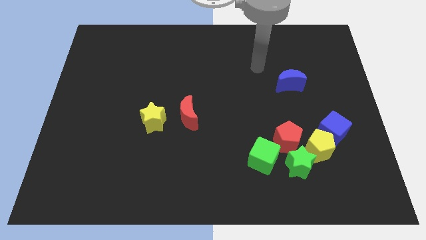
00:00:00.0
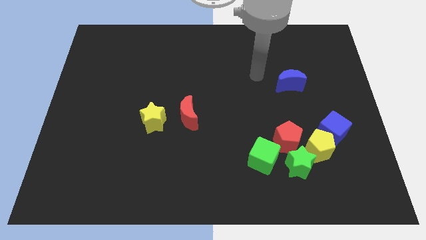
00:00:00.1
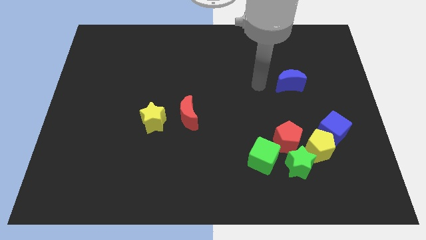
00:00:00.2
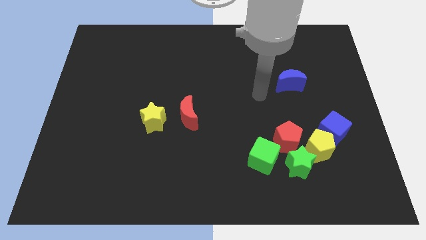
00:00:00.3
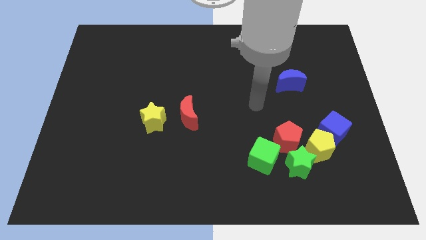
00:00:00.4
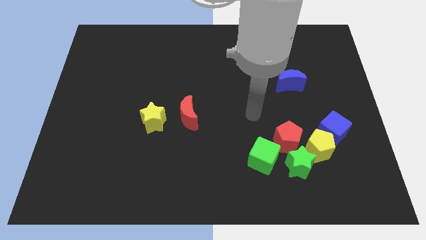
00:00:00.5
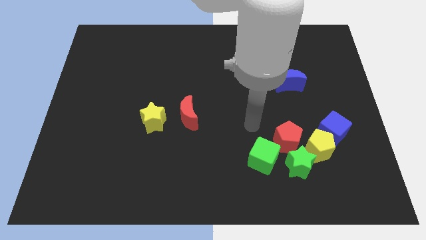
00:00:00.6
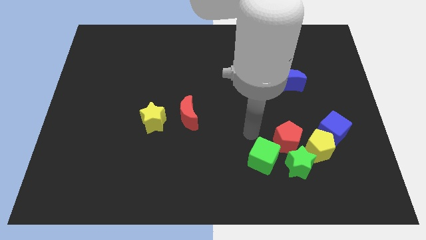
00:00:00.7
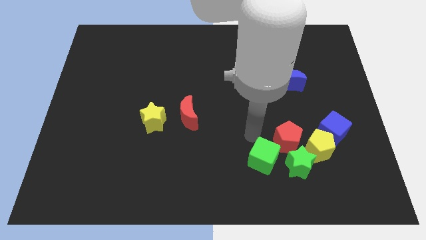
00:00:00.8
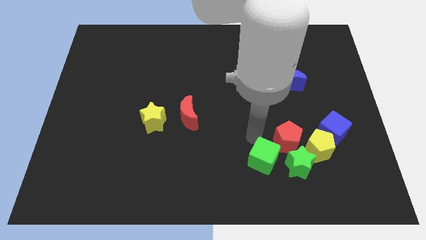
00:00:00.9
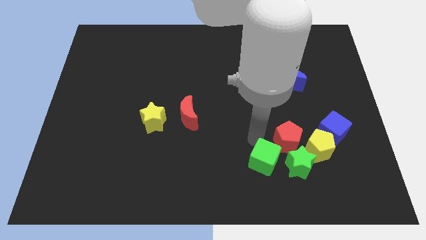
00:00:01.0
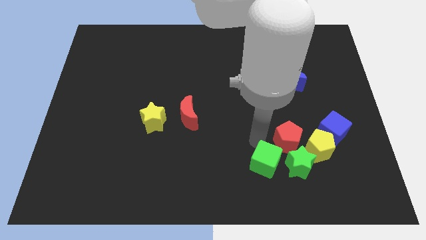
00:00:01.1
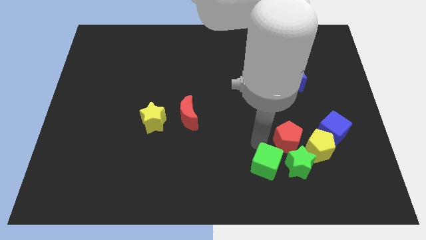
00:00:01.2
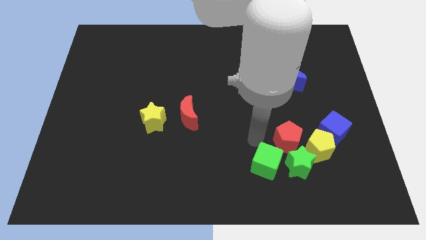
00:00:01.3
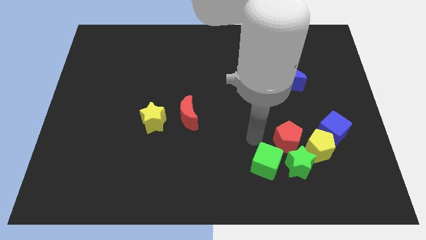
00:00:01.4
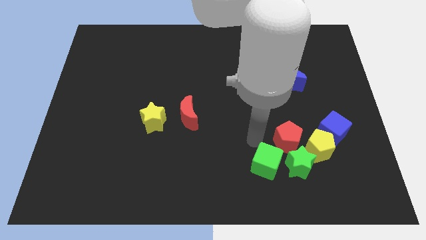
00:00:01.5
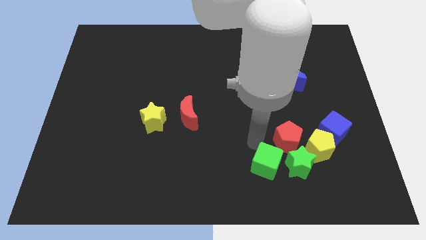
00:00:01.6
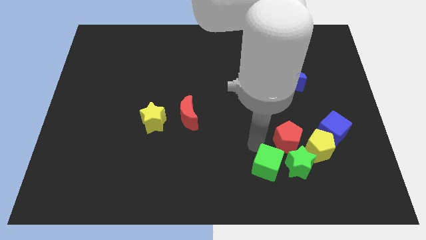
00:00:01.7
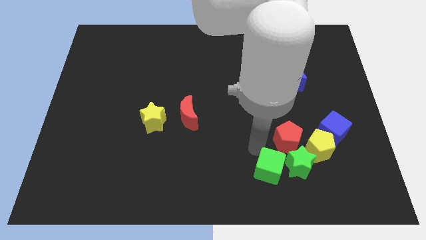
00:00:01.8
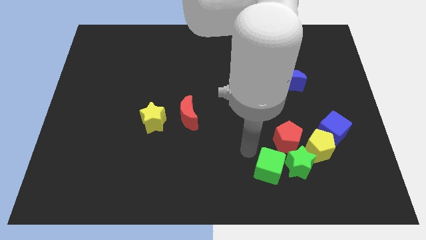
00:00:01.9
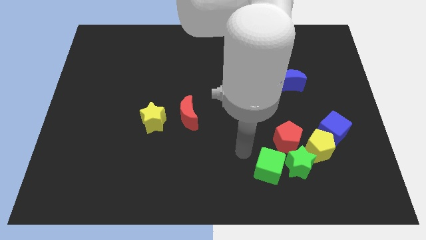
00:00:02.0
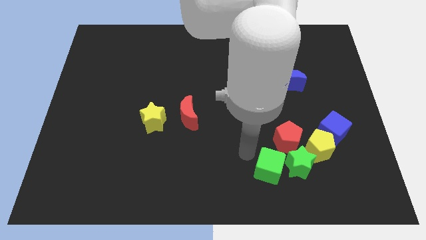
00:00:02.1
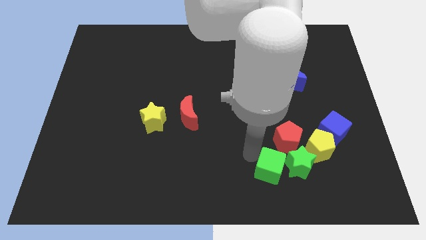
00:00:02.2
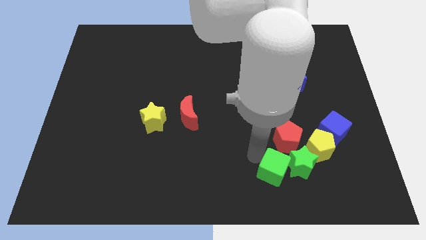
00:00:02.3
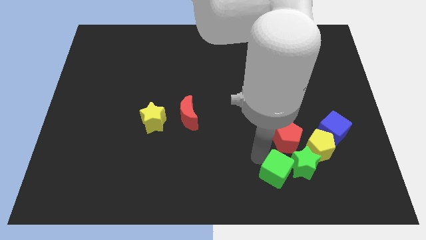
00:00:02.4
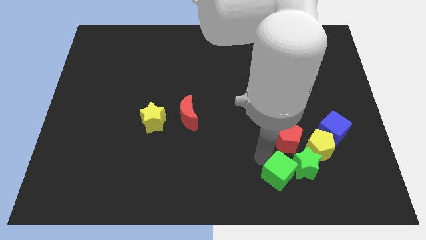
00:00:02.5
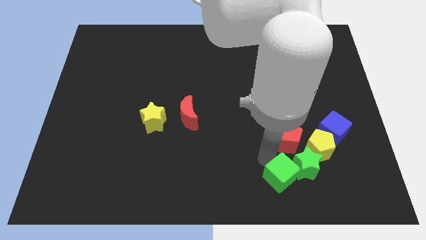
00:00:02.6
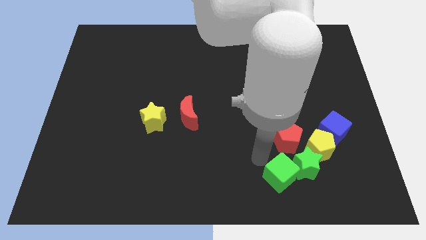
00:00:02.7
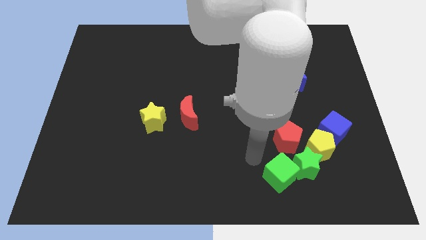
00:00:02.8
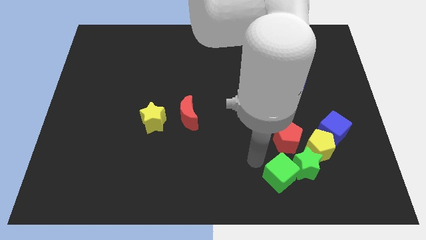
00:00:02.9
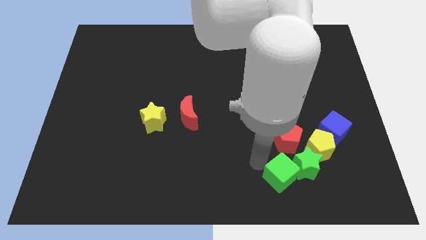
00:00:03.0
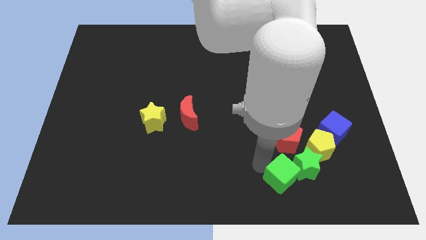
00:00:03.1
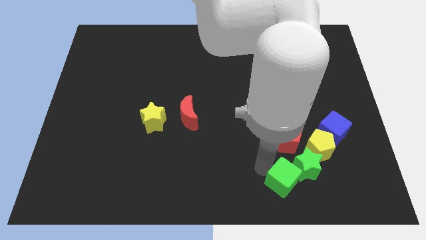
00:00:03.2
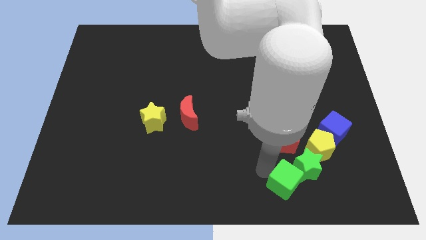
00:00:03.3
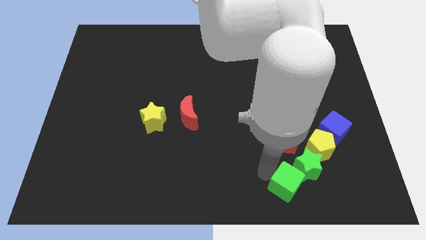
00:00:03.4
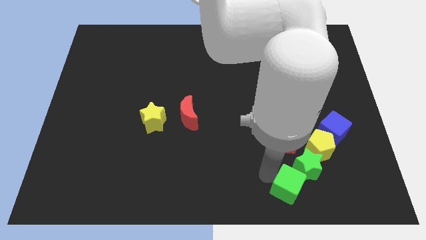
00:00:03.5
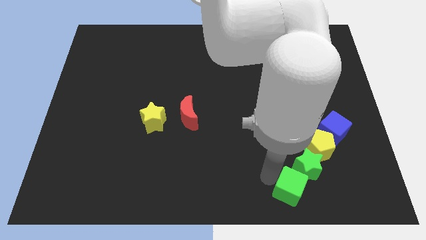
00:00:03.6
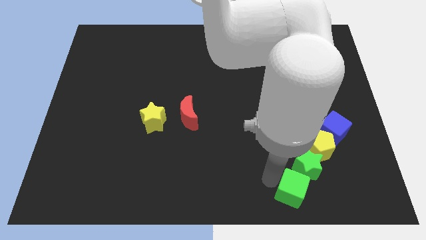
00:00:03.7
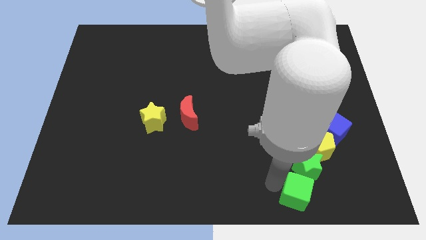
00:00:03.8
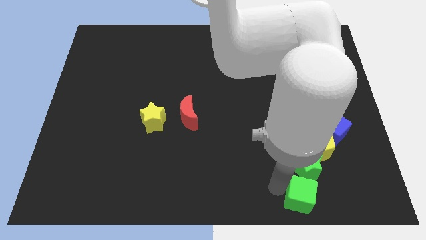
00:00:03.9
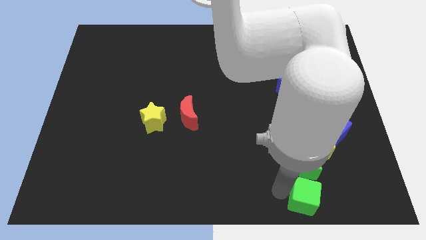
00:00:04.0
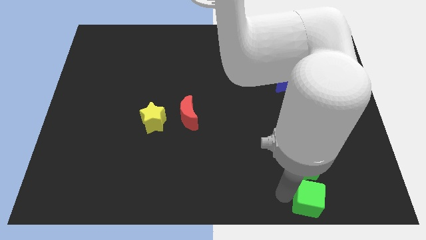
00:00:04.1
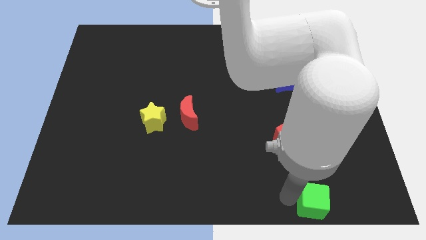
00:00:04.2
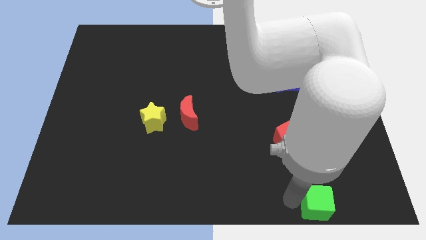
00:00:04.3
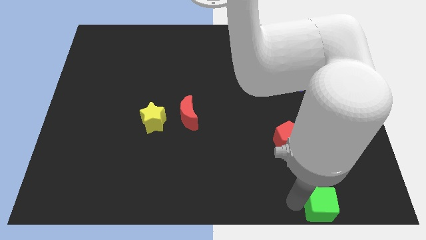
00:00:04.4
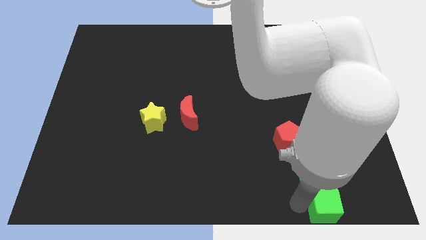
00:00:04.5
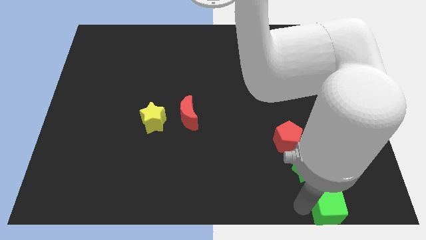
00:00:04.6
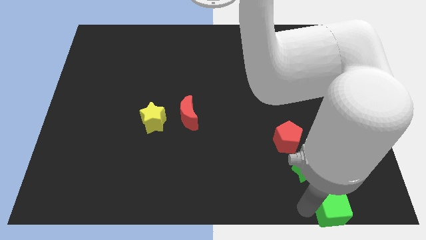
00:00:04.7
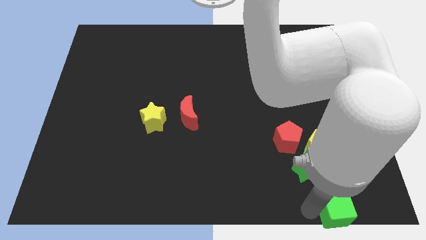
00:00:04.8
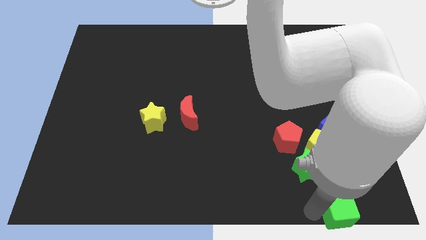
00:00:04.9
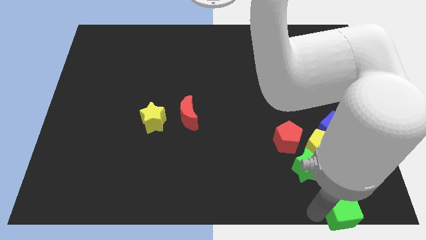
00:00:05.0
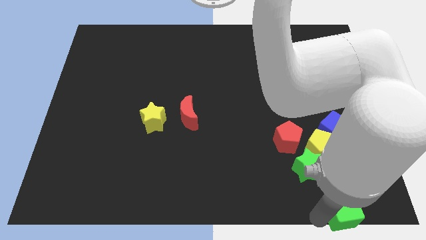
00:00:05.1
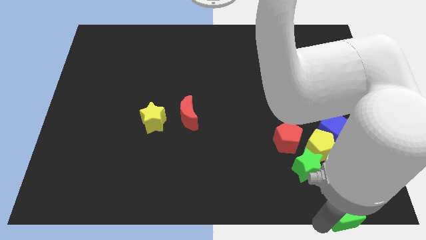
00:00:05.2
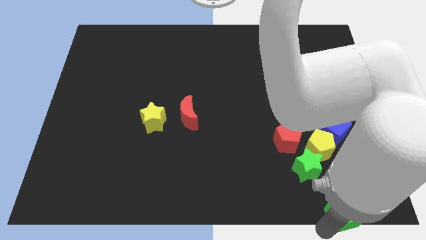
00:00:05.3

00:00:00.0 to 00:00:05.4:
slide the green cube to the lower right corner
